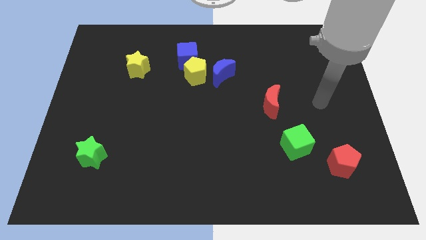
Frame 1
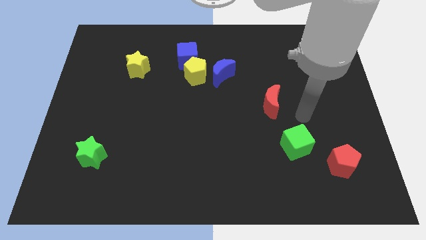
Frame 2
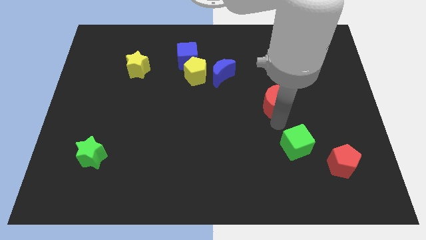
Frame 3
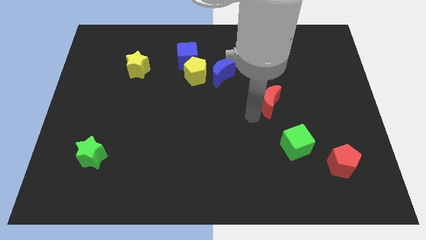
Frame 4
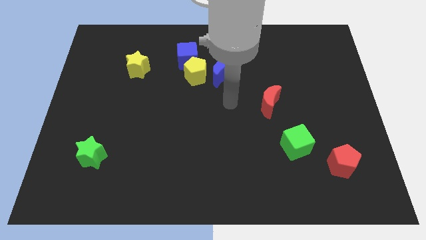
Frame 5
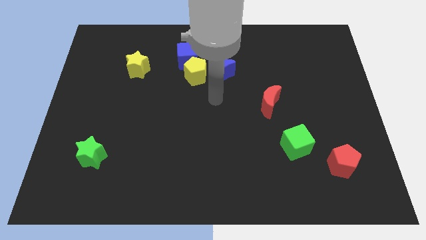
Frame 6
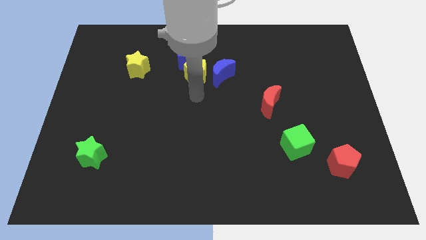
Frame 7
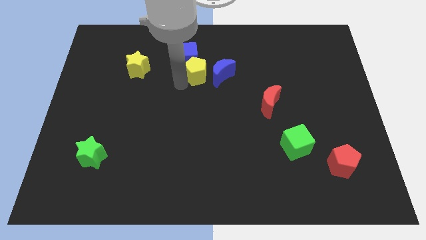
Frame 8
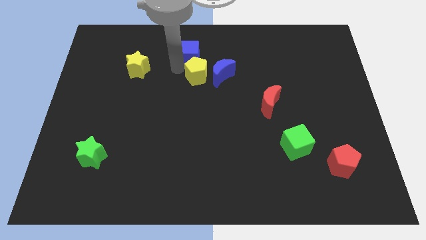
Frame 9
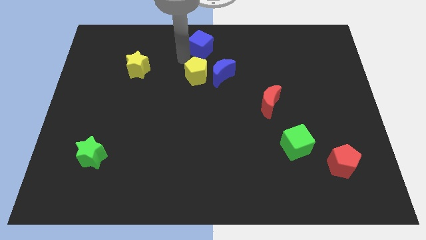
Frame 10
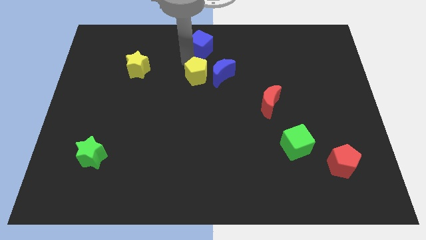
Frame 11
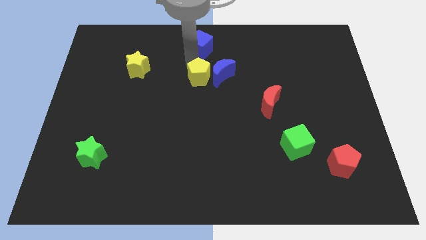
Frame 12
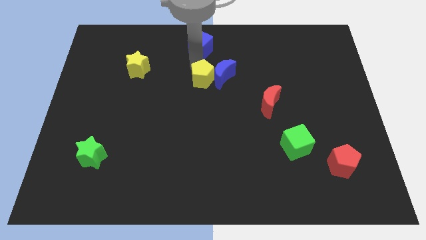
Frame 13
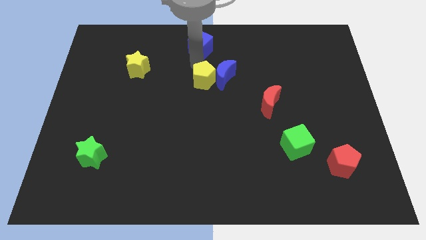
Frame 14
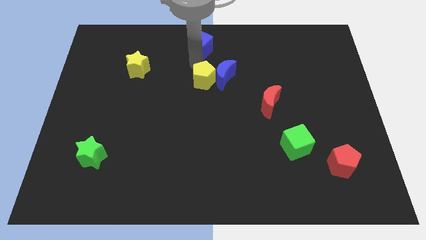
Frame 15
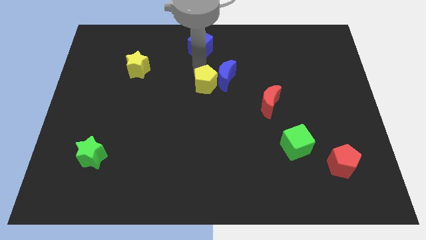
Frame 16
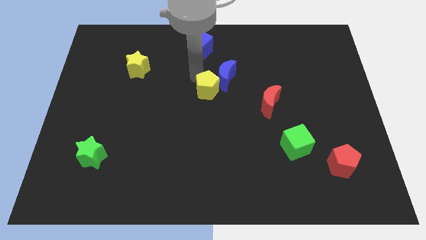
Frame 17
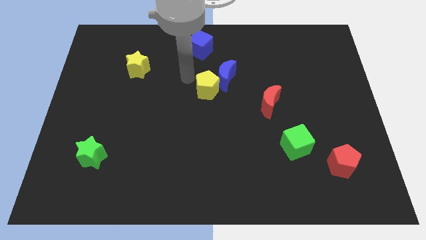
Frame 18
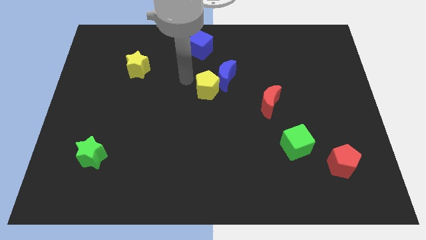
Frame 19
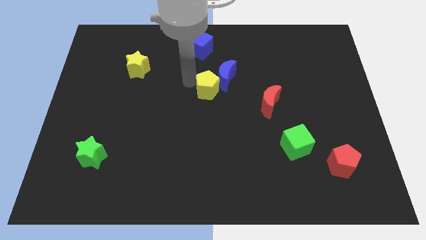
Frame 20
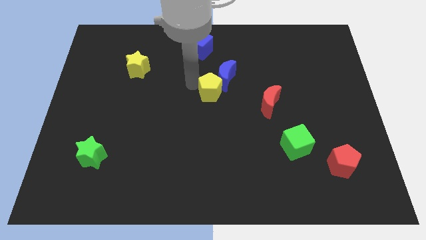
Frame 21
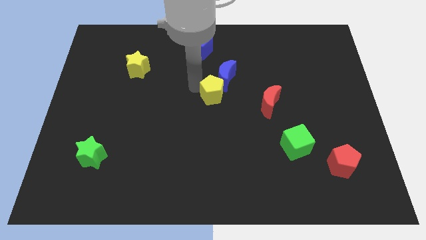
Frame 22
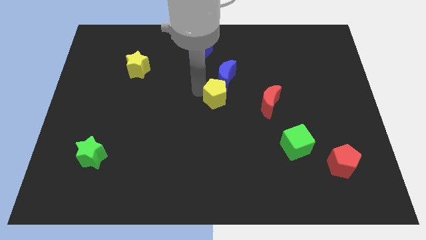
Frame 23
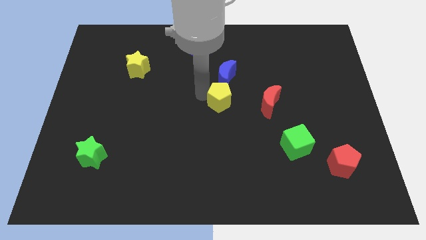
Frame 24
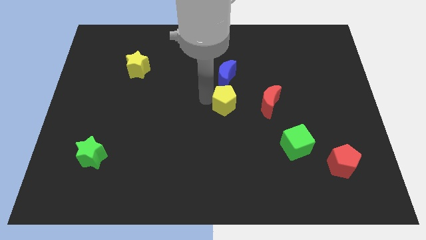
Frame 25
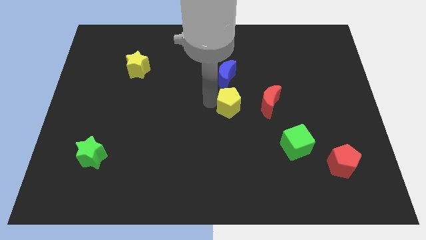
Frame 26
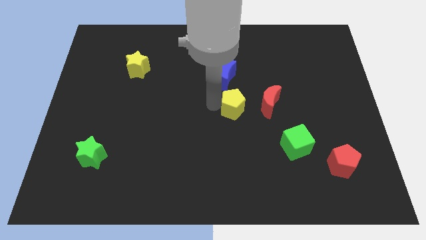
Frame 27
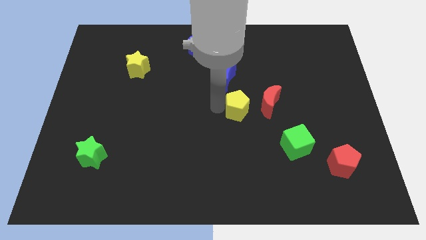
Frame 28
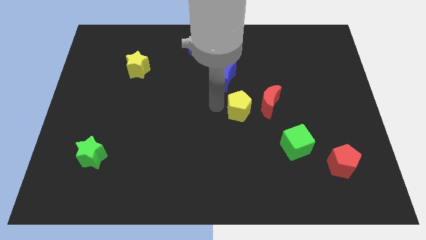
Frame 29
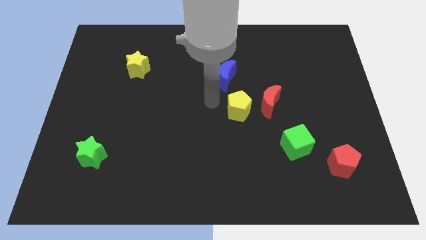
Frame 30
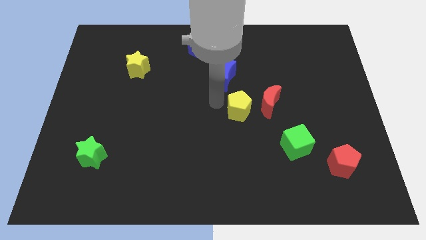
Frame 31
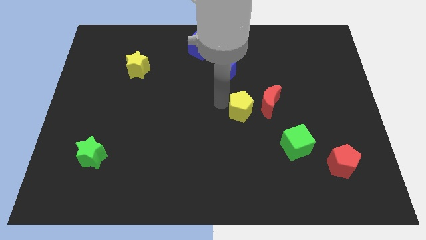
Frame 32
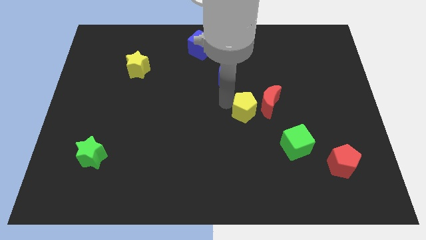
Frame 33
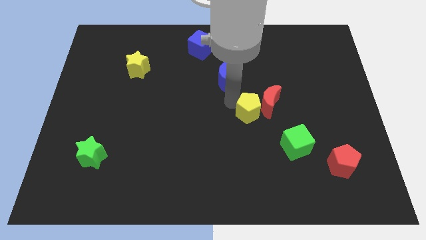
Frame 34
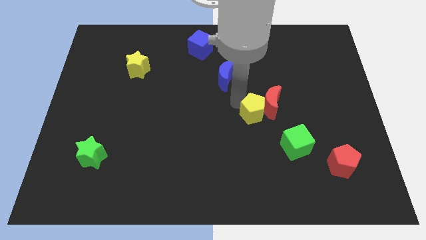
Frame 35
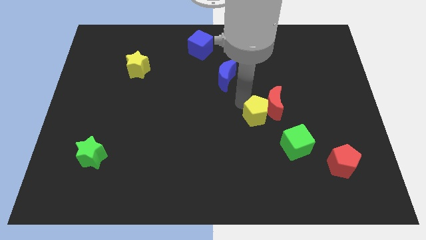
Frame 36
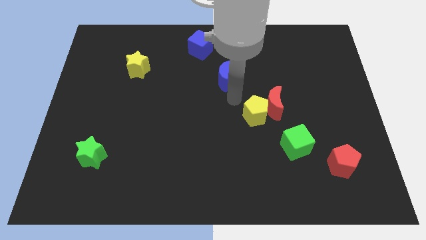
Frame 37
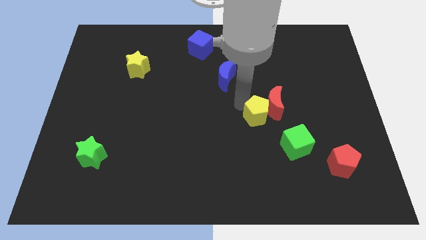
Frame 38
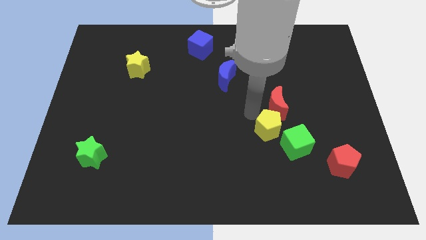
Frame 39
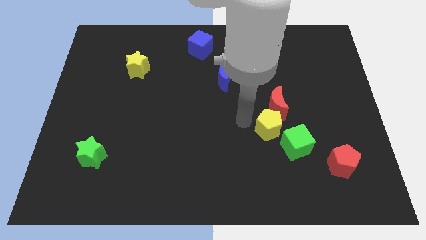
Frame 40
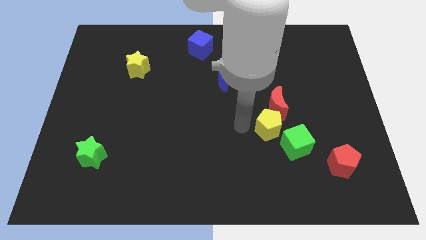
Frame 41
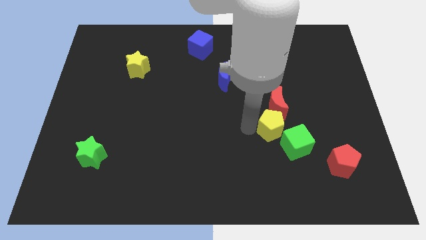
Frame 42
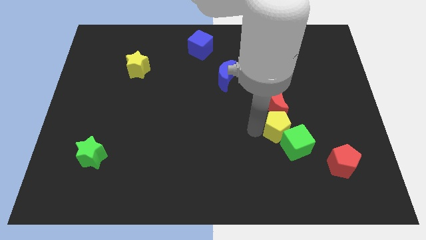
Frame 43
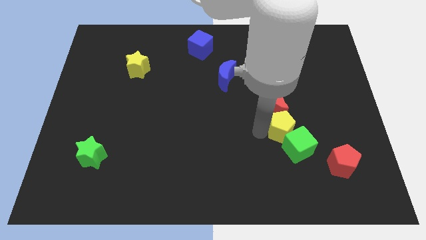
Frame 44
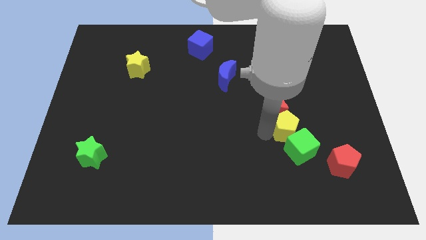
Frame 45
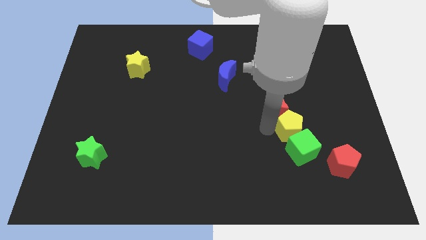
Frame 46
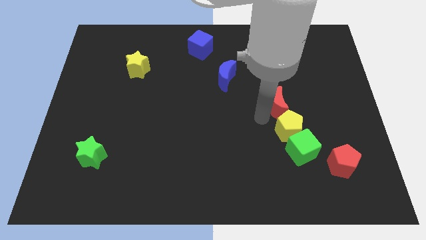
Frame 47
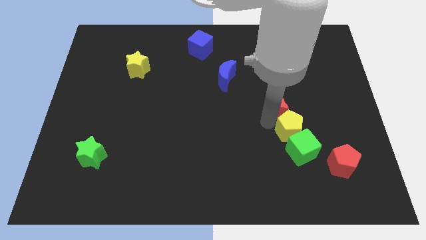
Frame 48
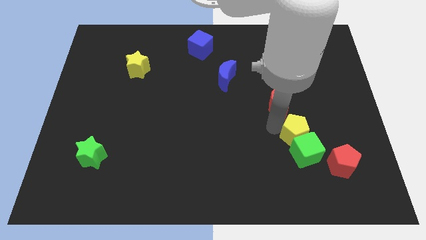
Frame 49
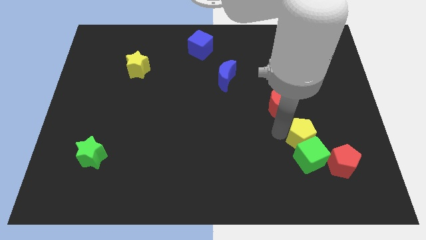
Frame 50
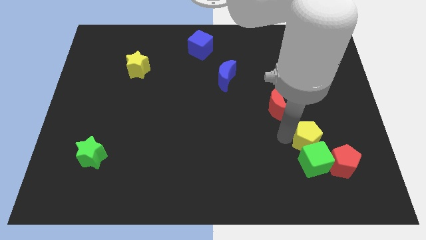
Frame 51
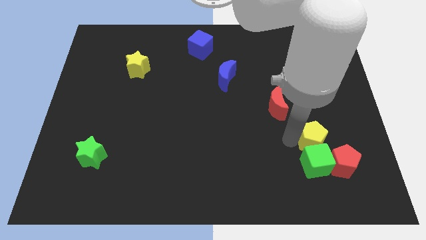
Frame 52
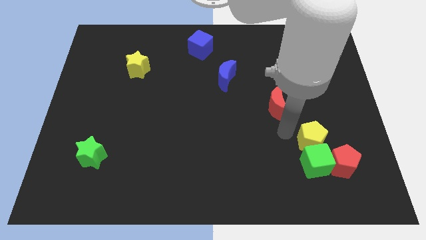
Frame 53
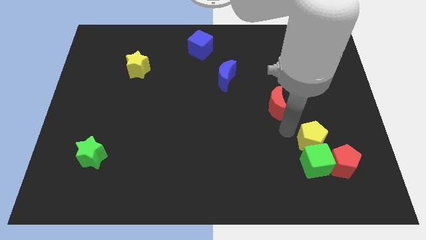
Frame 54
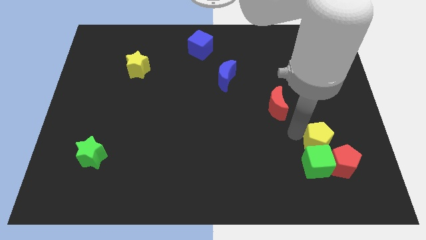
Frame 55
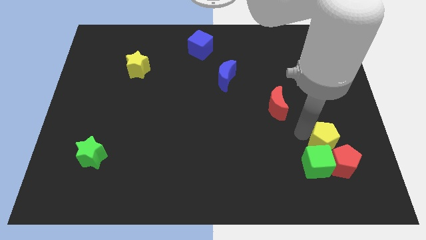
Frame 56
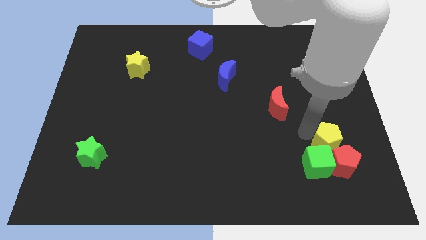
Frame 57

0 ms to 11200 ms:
push the yellow pentagon close to the red pentagon

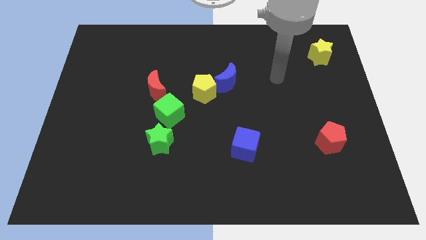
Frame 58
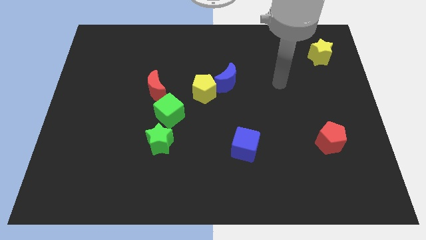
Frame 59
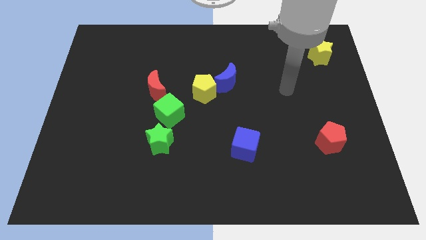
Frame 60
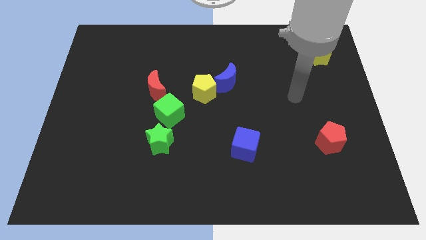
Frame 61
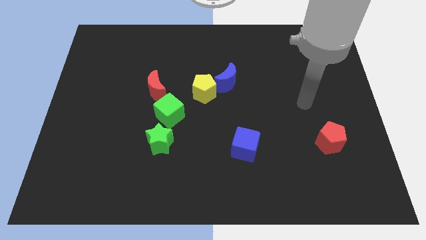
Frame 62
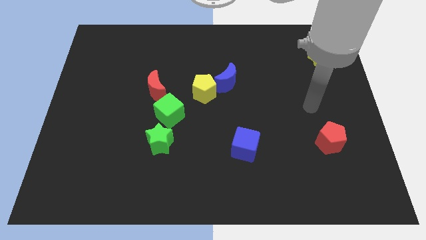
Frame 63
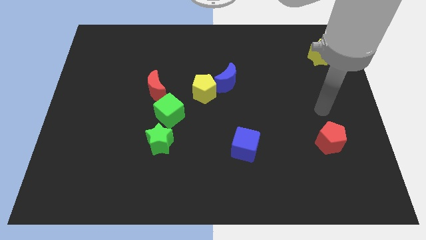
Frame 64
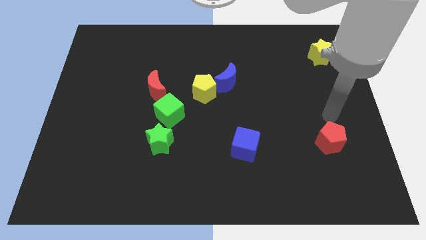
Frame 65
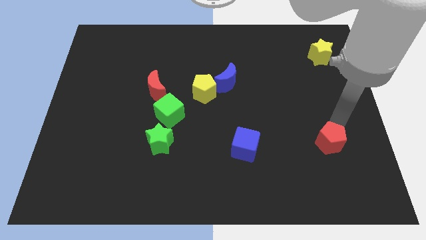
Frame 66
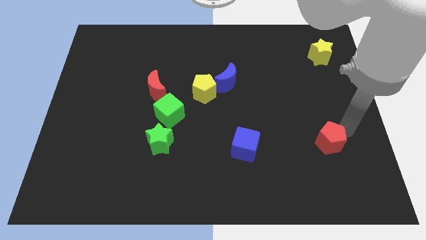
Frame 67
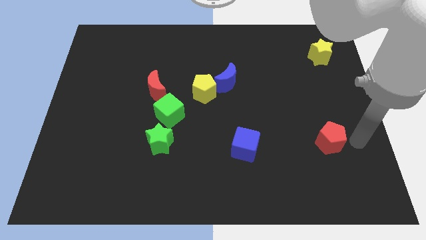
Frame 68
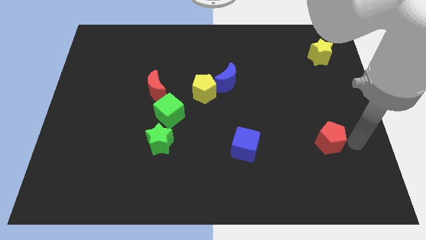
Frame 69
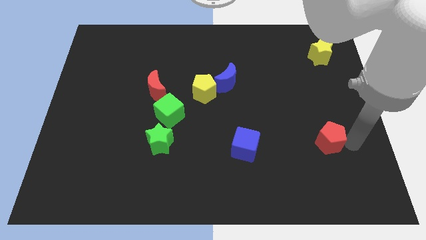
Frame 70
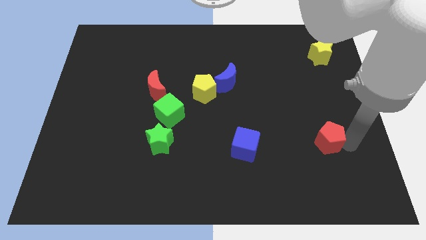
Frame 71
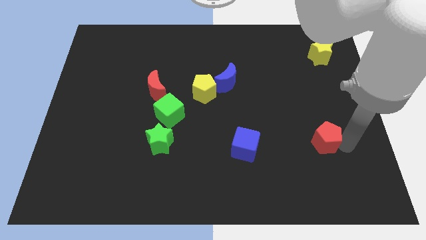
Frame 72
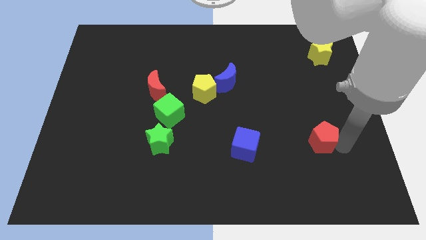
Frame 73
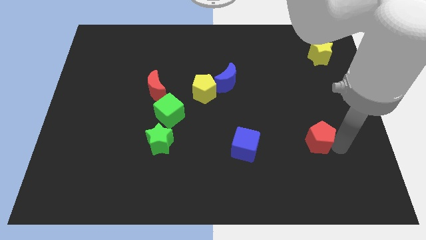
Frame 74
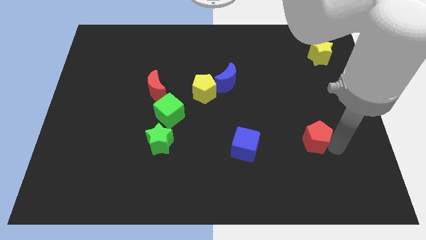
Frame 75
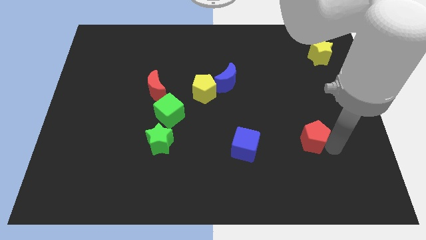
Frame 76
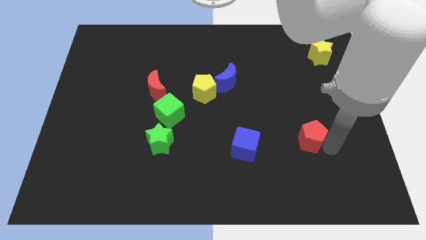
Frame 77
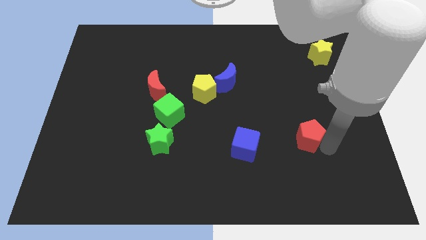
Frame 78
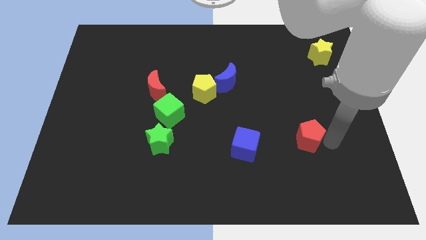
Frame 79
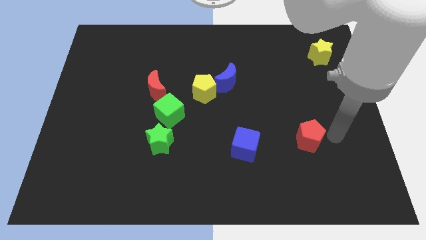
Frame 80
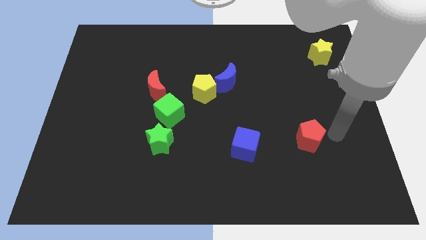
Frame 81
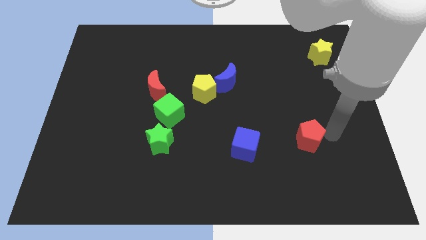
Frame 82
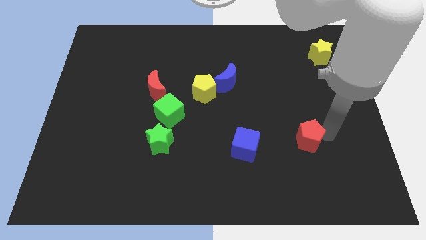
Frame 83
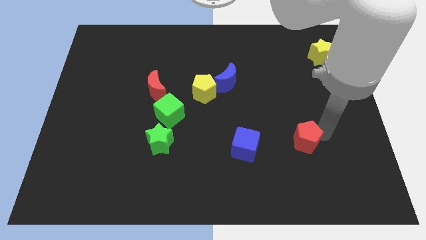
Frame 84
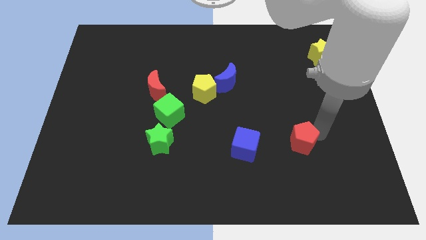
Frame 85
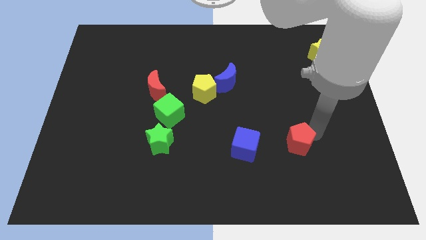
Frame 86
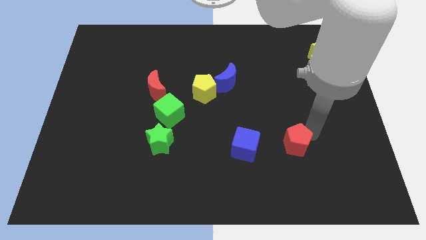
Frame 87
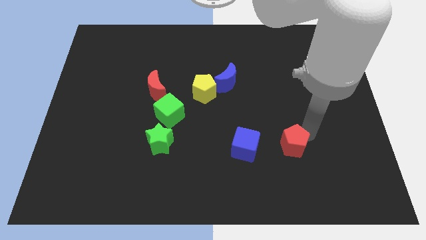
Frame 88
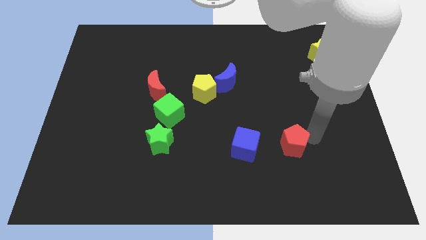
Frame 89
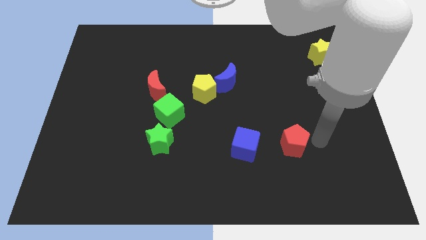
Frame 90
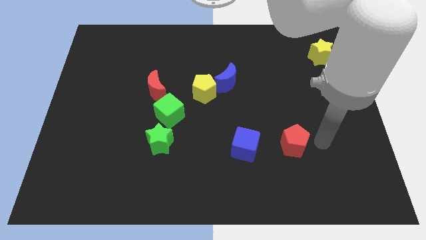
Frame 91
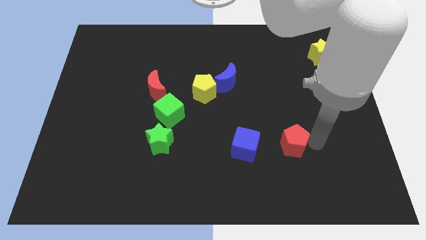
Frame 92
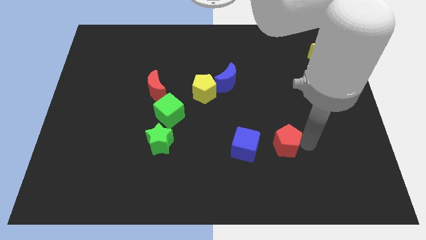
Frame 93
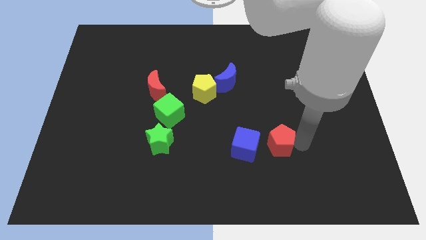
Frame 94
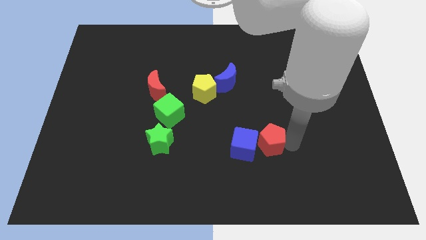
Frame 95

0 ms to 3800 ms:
put the red pentagon close to the blue cube
